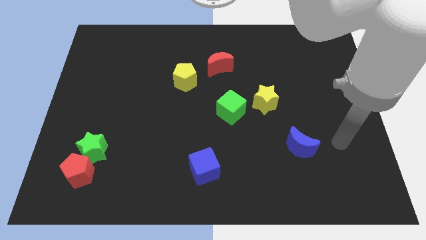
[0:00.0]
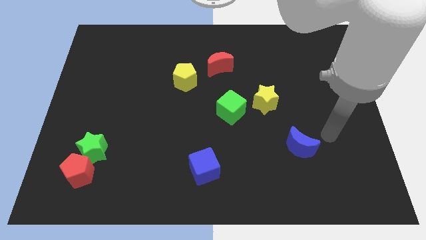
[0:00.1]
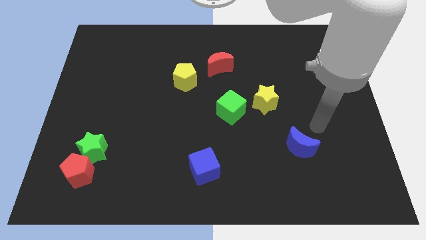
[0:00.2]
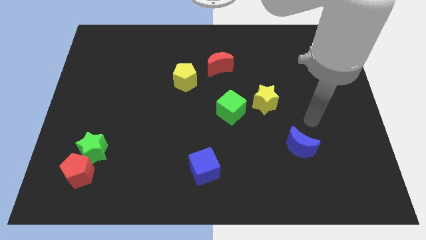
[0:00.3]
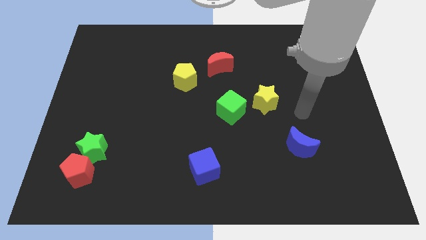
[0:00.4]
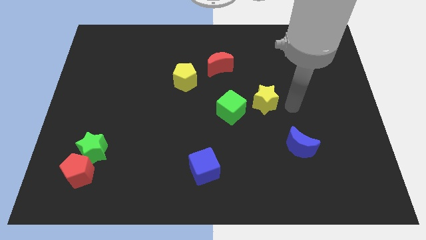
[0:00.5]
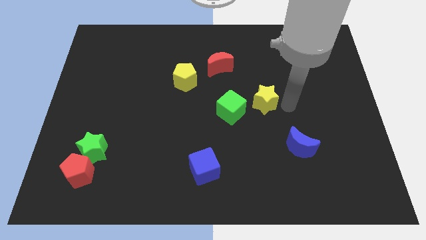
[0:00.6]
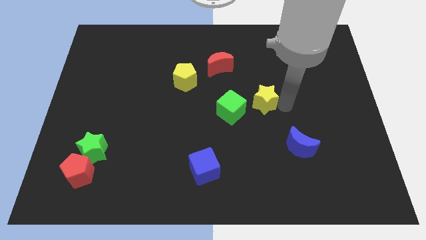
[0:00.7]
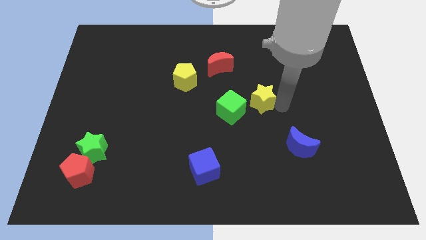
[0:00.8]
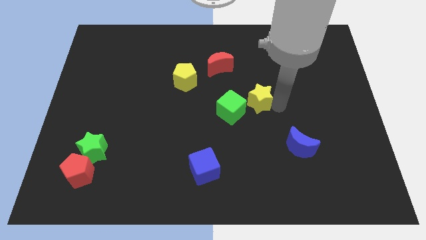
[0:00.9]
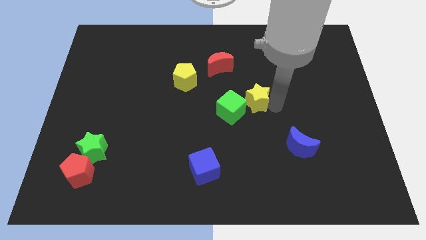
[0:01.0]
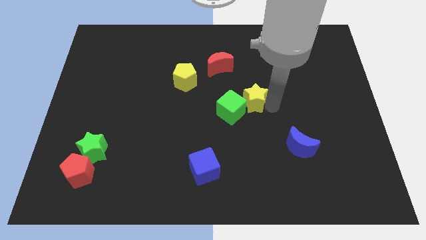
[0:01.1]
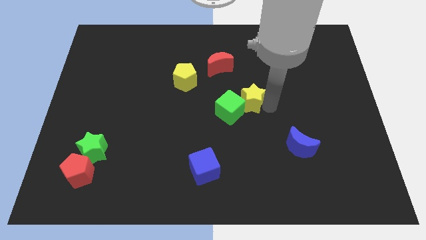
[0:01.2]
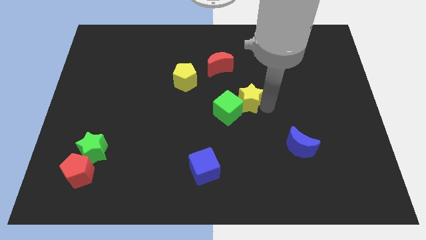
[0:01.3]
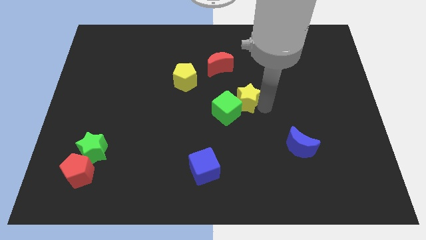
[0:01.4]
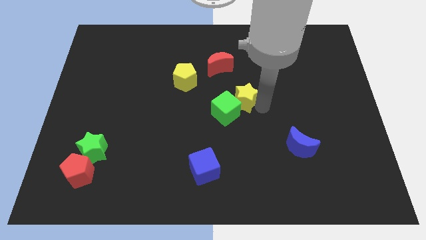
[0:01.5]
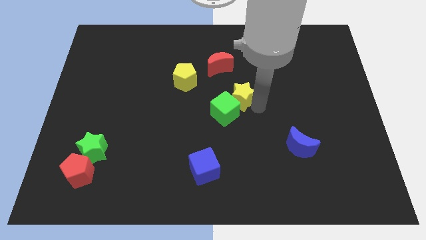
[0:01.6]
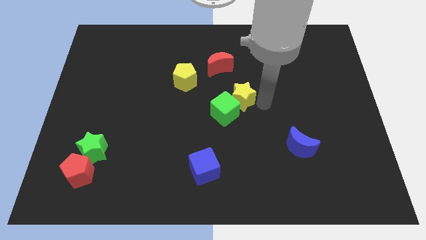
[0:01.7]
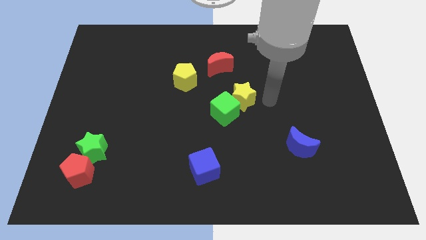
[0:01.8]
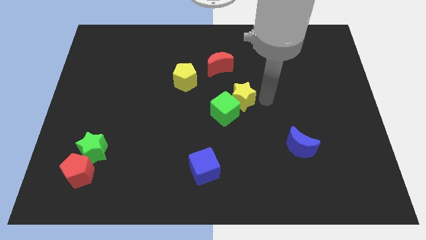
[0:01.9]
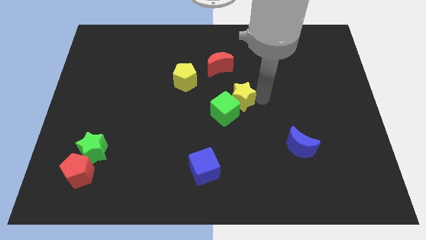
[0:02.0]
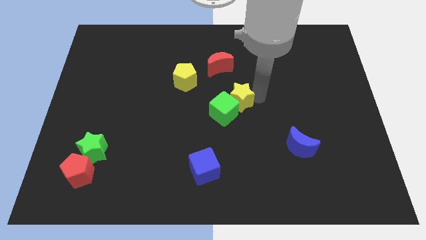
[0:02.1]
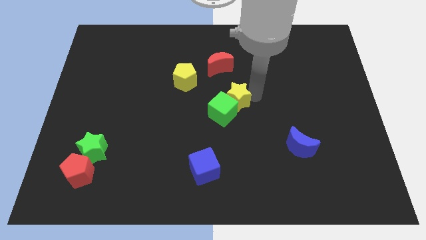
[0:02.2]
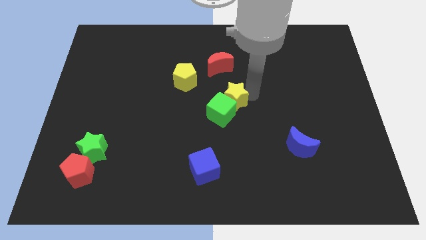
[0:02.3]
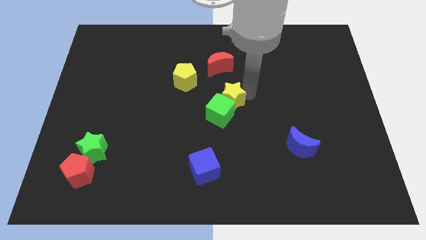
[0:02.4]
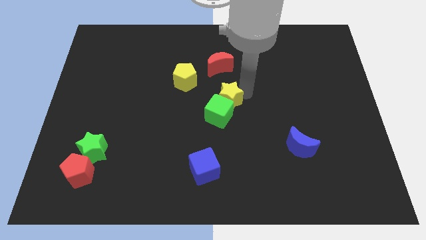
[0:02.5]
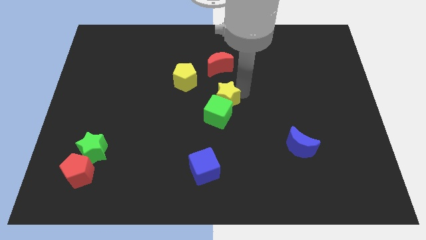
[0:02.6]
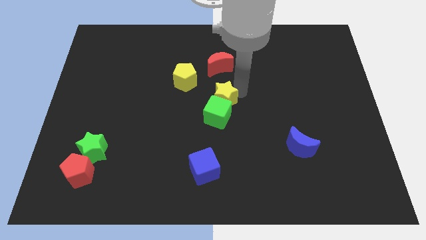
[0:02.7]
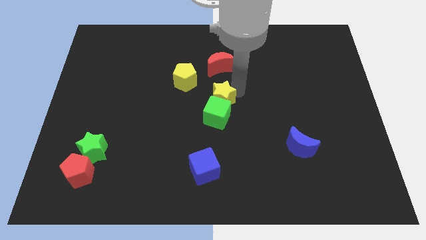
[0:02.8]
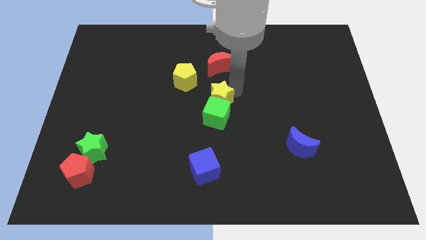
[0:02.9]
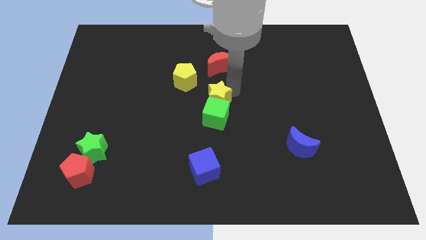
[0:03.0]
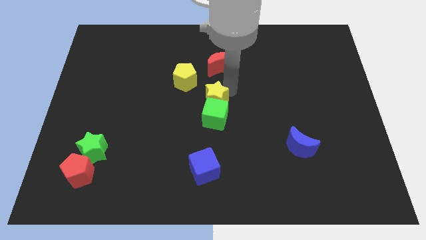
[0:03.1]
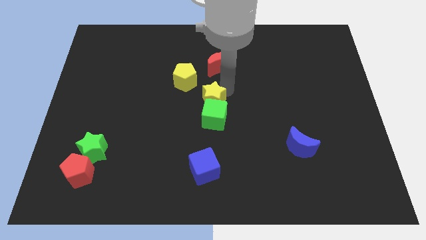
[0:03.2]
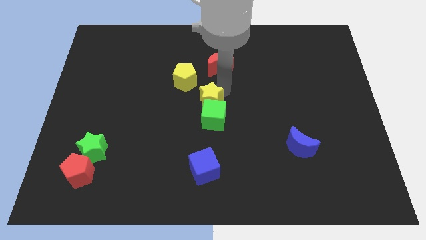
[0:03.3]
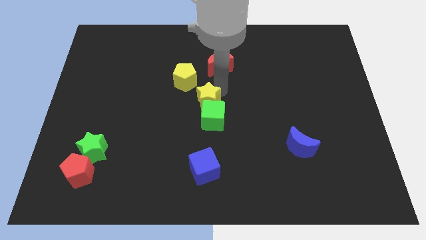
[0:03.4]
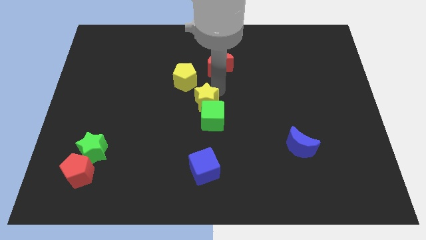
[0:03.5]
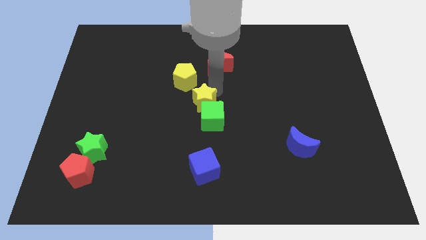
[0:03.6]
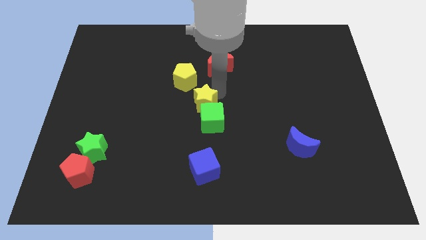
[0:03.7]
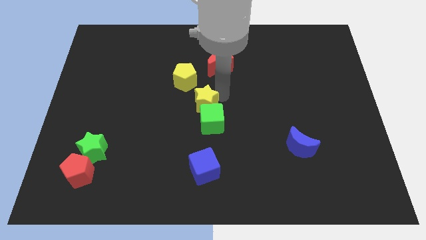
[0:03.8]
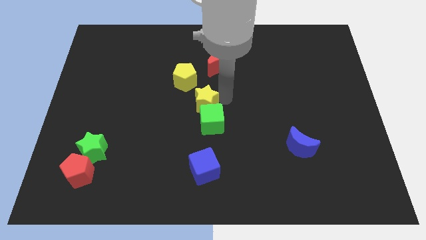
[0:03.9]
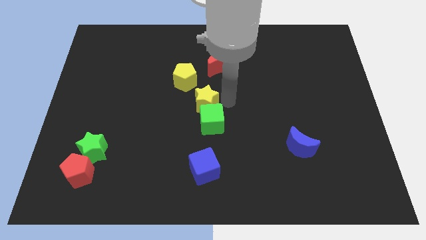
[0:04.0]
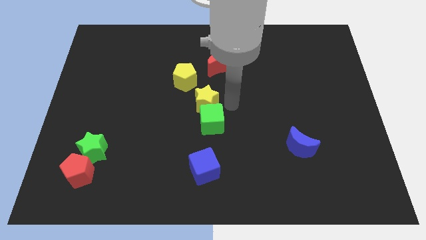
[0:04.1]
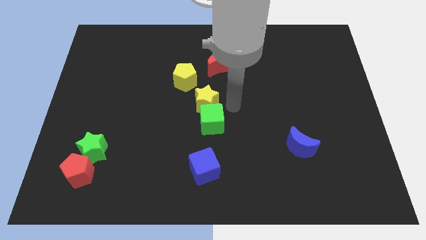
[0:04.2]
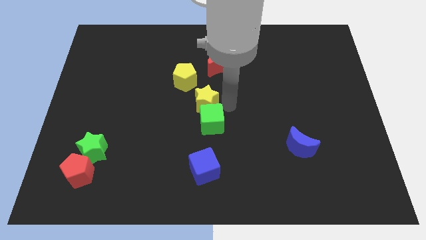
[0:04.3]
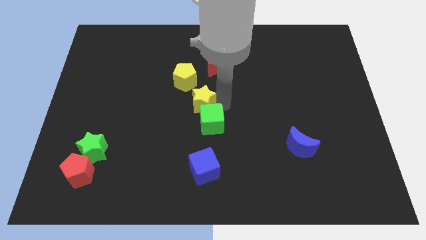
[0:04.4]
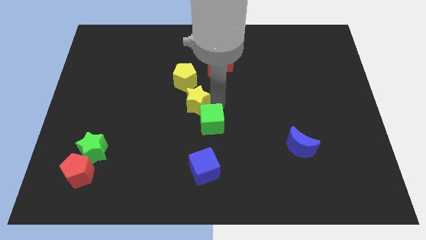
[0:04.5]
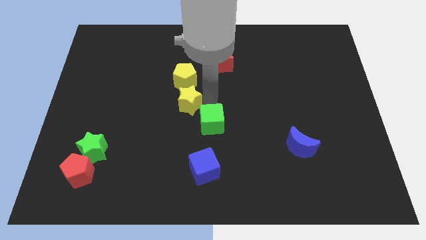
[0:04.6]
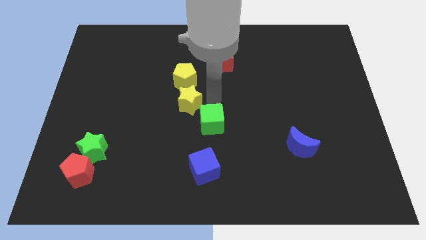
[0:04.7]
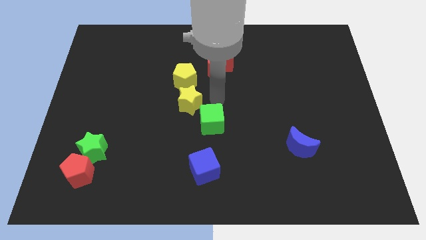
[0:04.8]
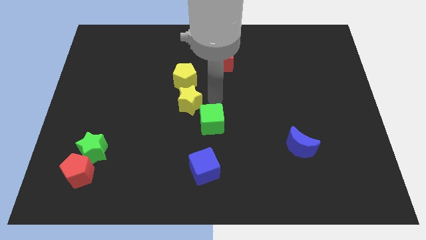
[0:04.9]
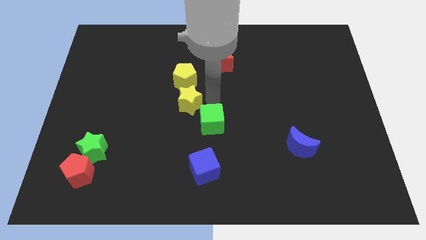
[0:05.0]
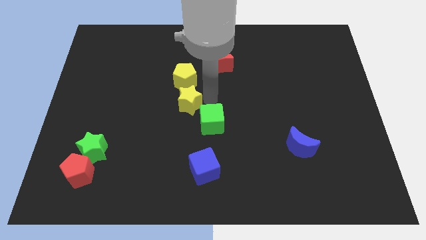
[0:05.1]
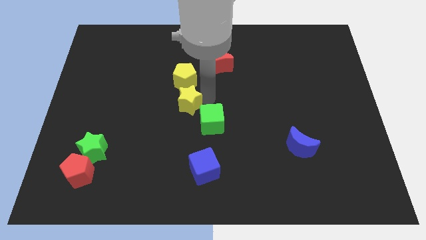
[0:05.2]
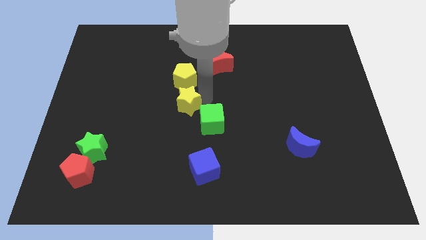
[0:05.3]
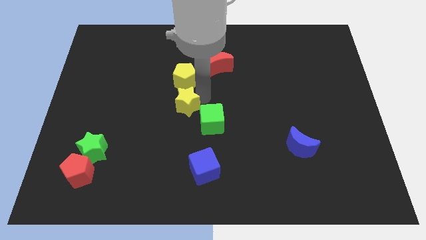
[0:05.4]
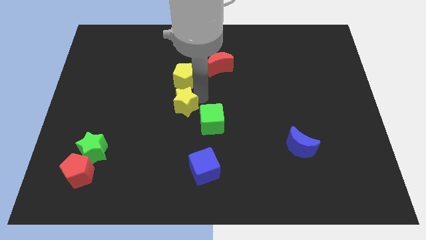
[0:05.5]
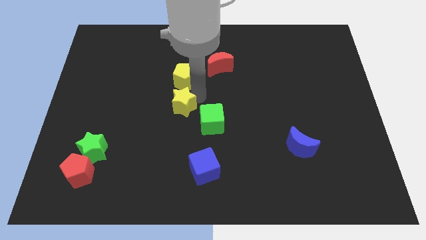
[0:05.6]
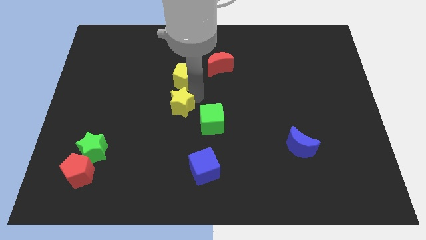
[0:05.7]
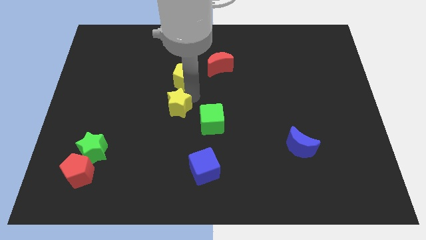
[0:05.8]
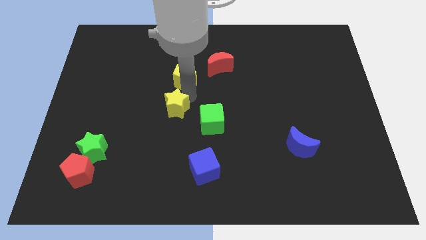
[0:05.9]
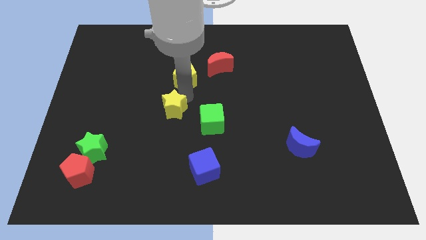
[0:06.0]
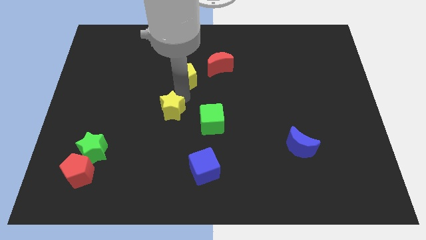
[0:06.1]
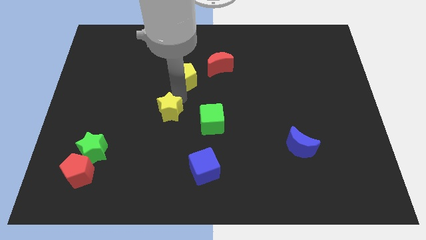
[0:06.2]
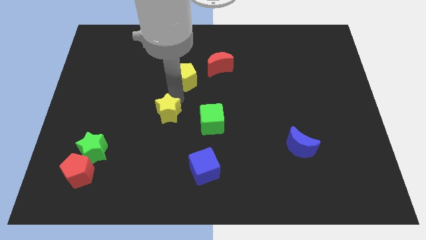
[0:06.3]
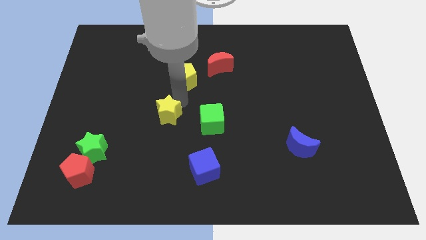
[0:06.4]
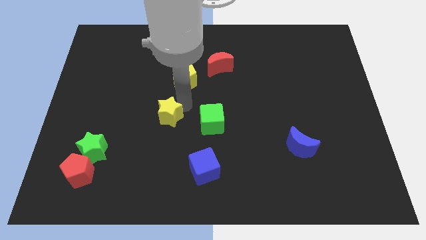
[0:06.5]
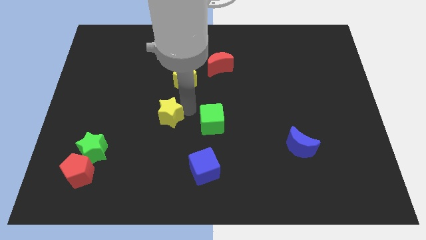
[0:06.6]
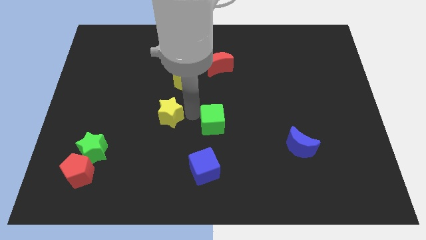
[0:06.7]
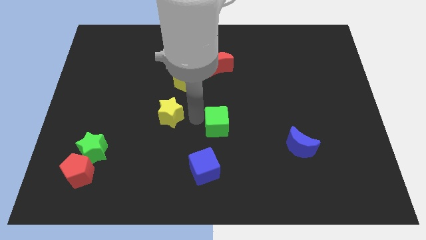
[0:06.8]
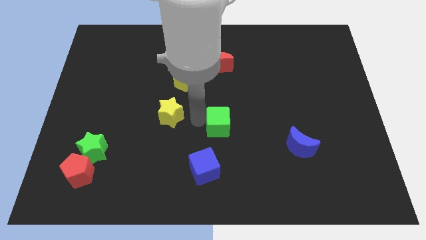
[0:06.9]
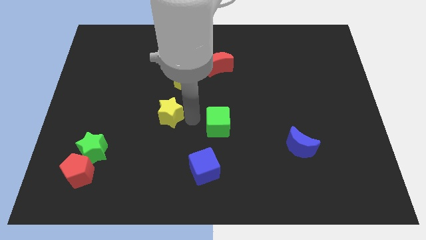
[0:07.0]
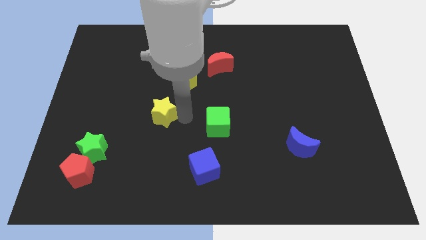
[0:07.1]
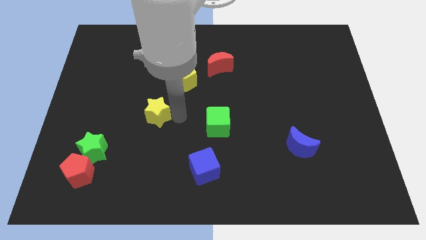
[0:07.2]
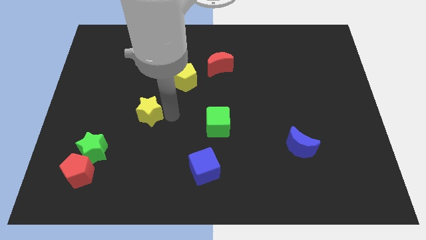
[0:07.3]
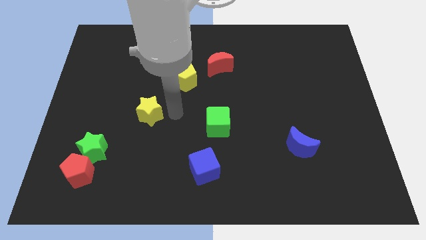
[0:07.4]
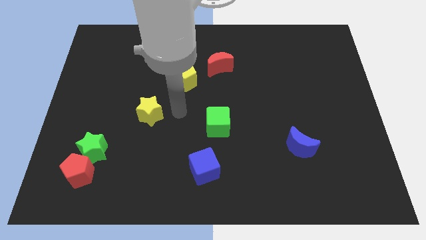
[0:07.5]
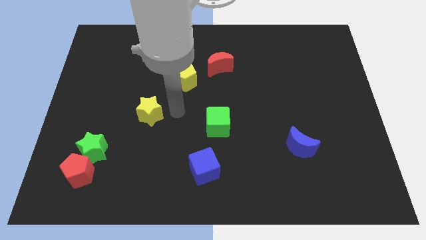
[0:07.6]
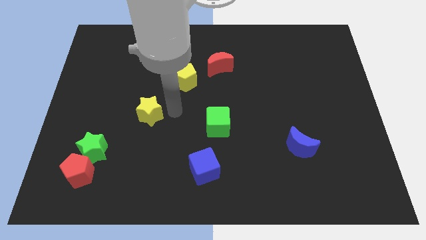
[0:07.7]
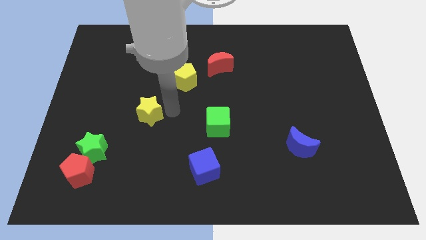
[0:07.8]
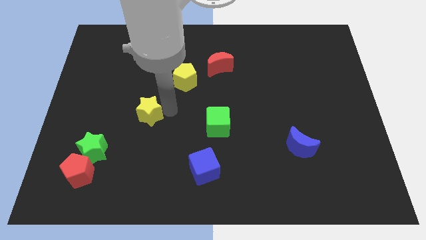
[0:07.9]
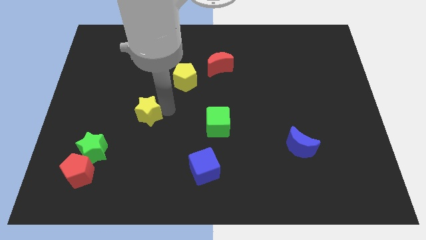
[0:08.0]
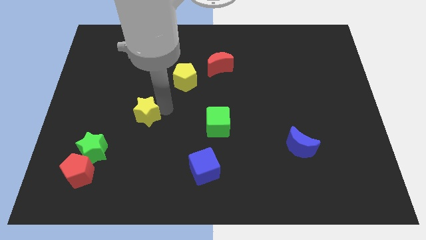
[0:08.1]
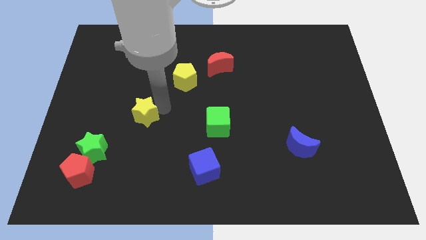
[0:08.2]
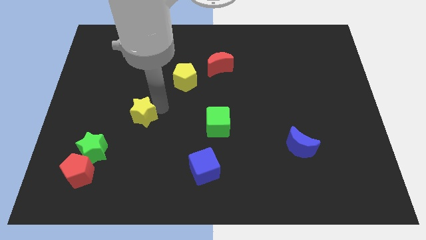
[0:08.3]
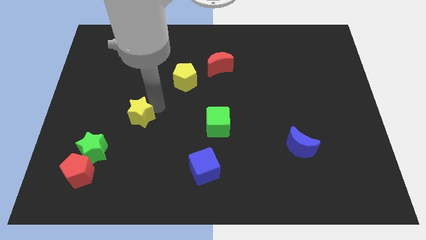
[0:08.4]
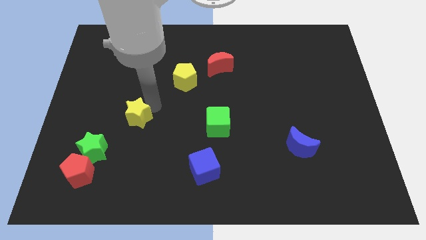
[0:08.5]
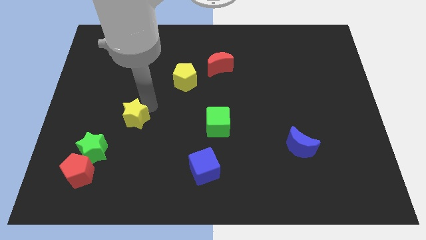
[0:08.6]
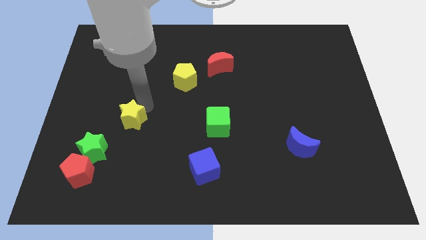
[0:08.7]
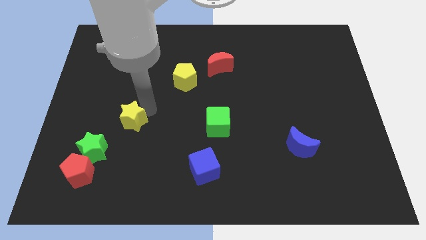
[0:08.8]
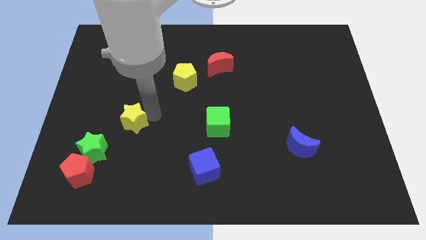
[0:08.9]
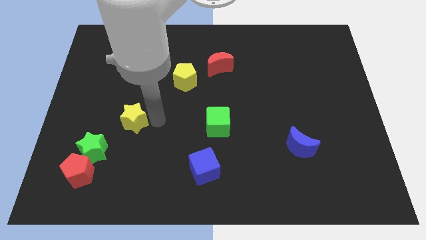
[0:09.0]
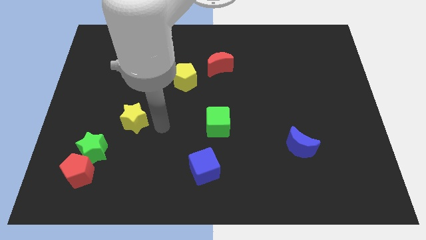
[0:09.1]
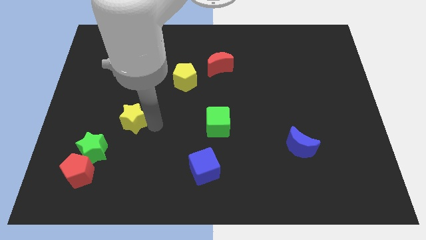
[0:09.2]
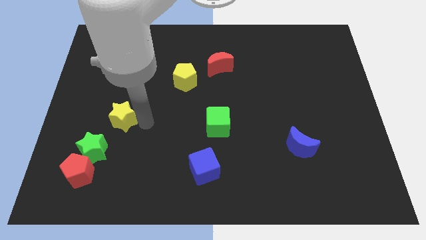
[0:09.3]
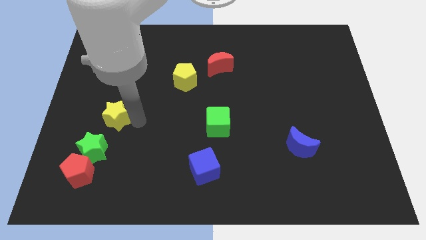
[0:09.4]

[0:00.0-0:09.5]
move the yellow star to the top side of the green star
